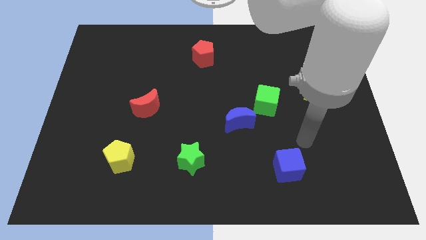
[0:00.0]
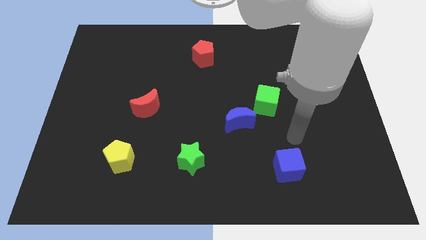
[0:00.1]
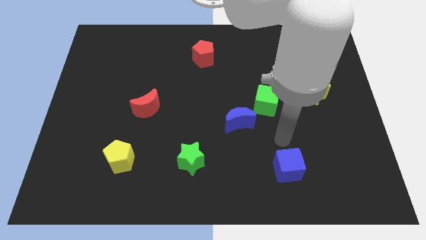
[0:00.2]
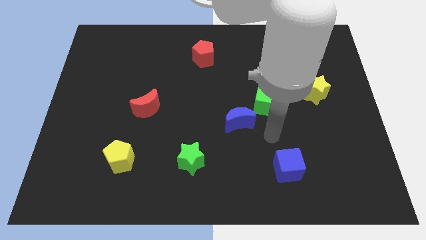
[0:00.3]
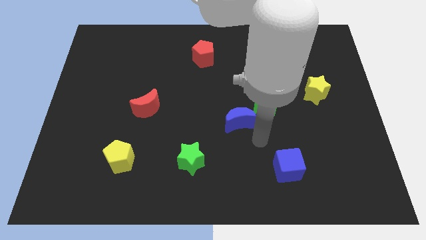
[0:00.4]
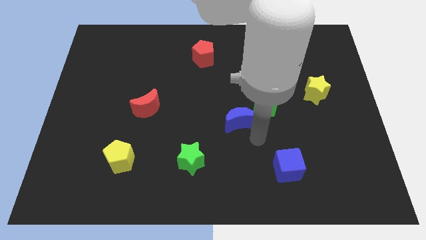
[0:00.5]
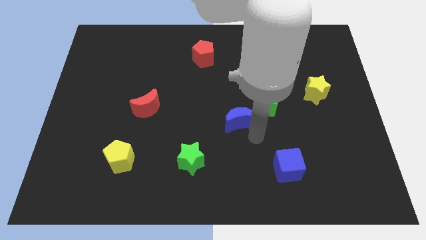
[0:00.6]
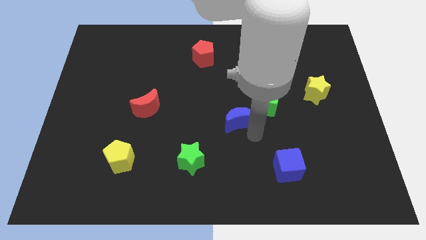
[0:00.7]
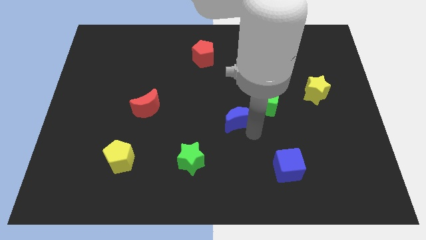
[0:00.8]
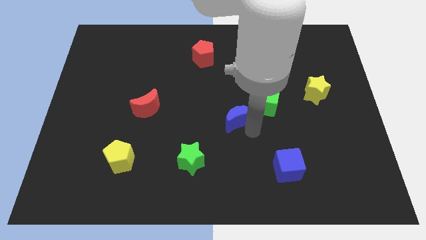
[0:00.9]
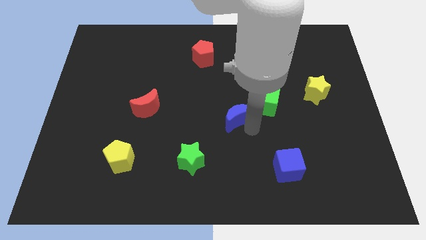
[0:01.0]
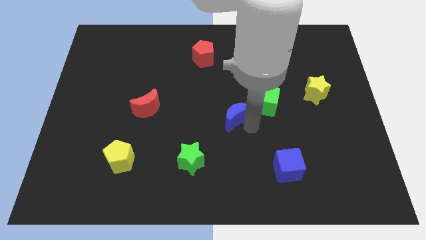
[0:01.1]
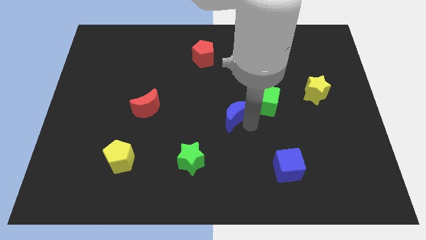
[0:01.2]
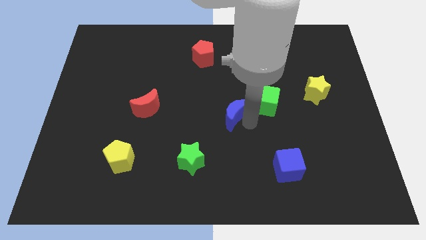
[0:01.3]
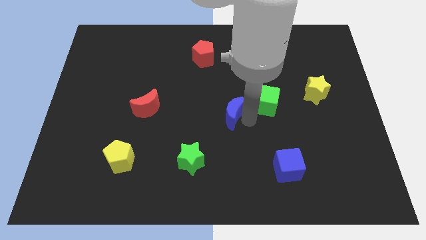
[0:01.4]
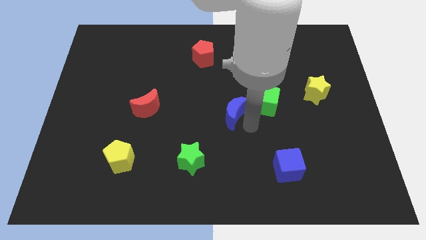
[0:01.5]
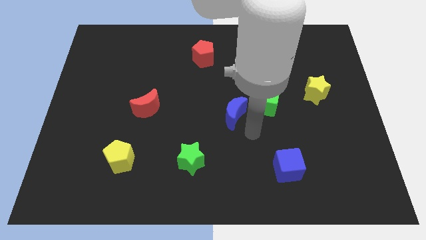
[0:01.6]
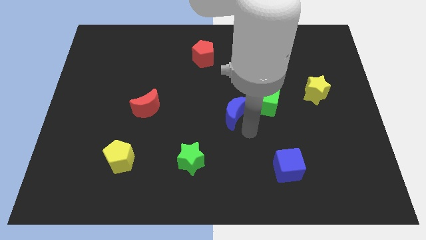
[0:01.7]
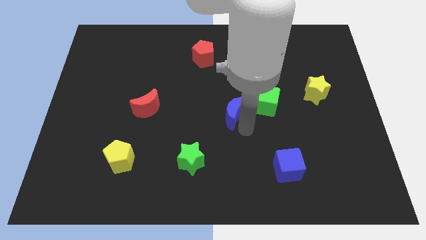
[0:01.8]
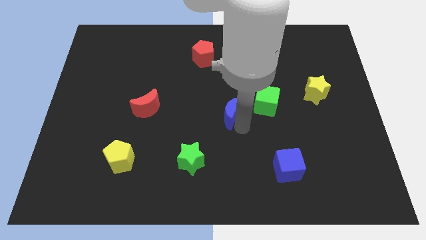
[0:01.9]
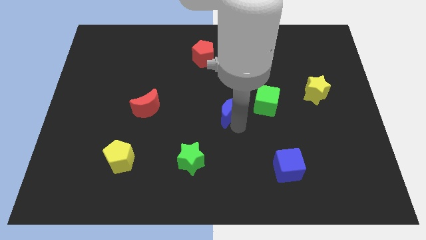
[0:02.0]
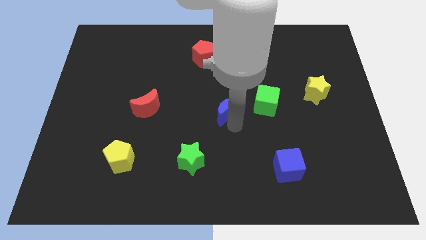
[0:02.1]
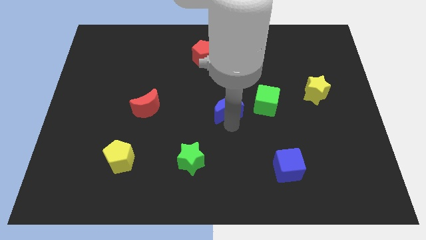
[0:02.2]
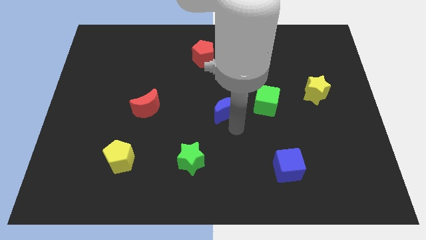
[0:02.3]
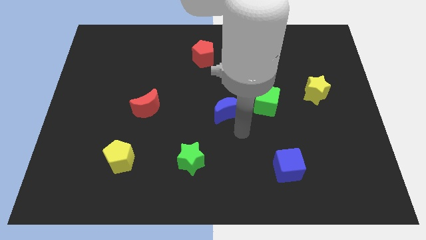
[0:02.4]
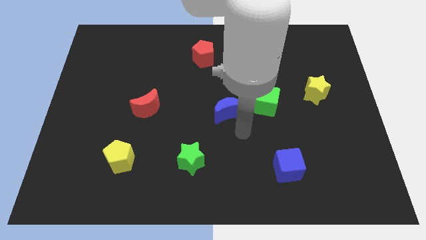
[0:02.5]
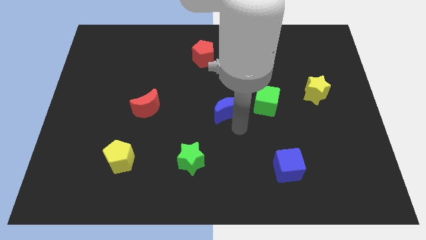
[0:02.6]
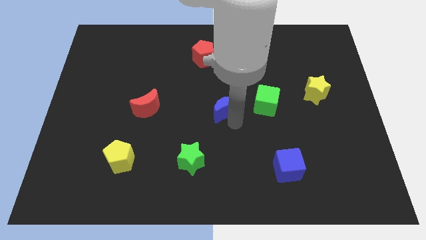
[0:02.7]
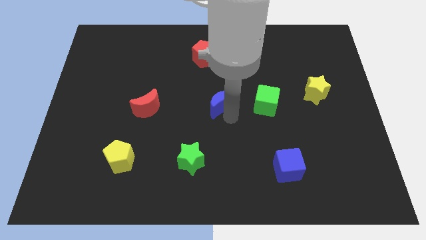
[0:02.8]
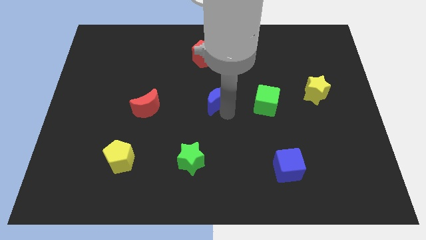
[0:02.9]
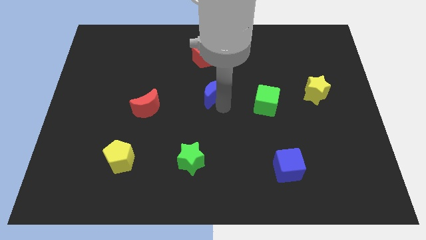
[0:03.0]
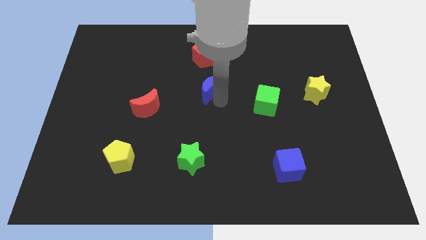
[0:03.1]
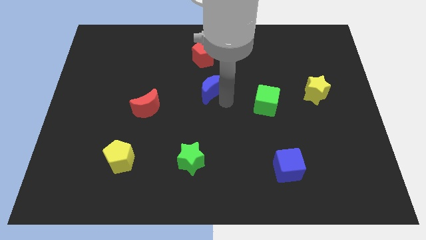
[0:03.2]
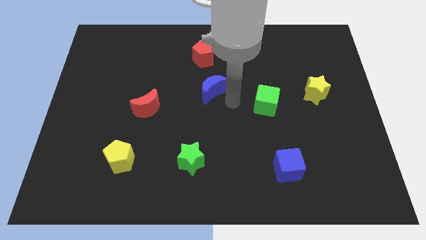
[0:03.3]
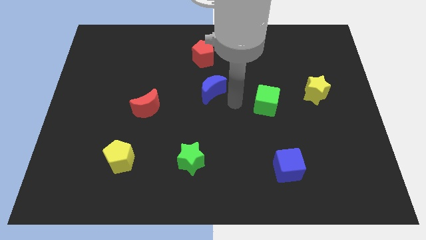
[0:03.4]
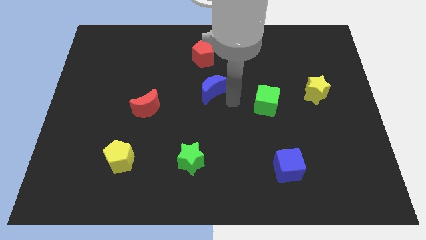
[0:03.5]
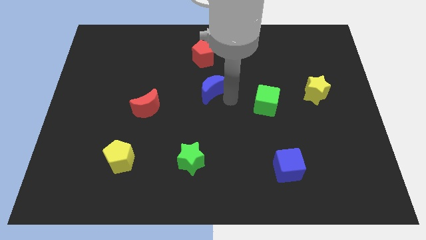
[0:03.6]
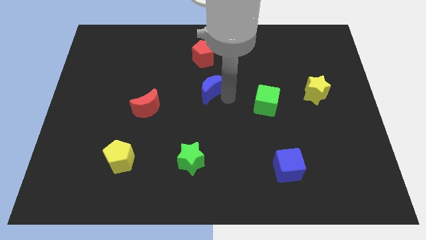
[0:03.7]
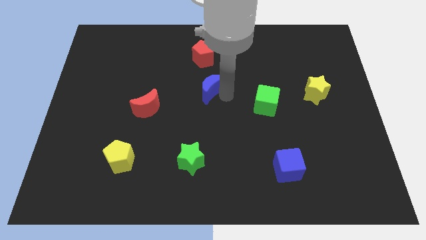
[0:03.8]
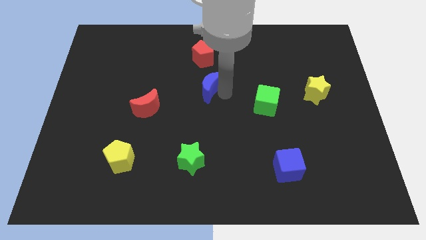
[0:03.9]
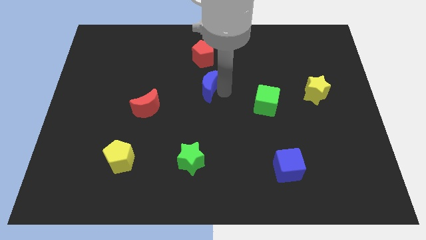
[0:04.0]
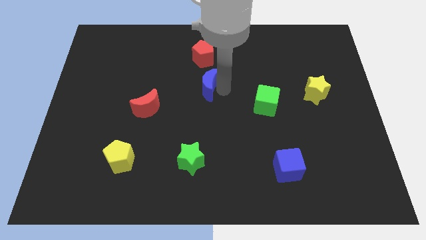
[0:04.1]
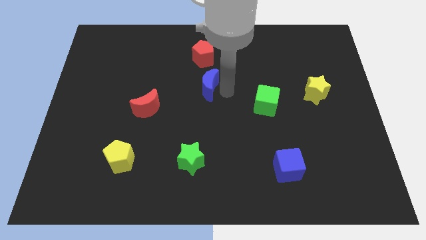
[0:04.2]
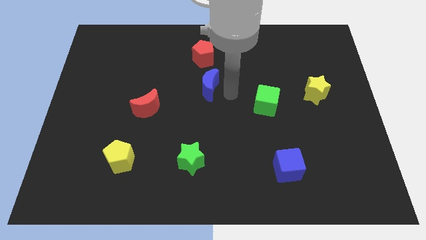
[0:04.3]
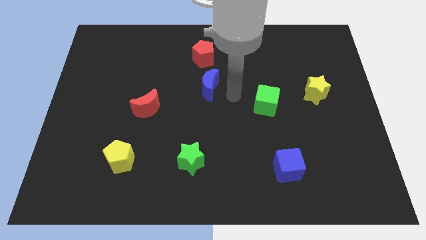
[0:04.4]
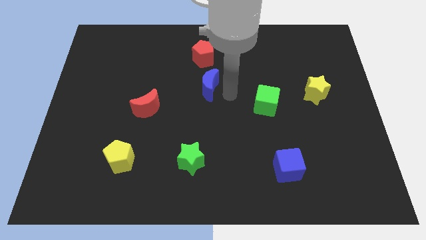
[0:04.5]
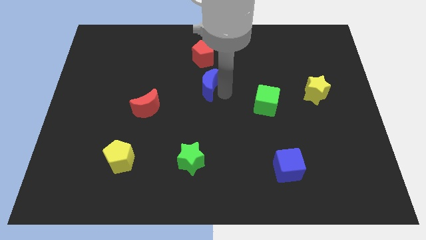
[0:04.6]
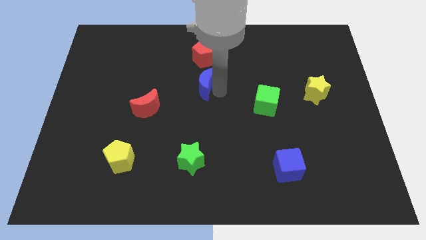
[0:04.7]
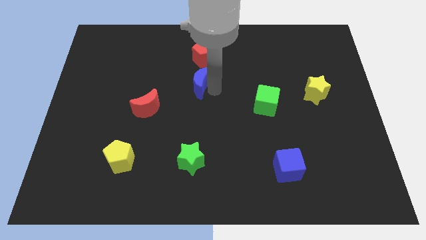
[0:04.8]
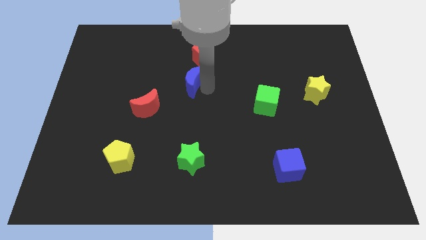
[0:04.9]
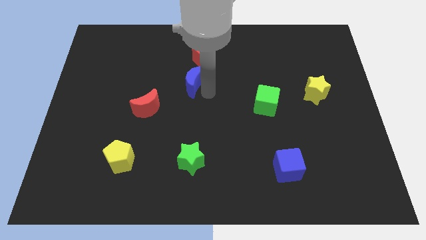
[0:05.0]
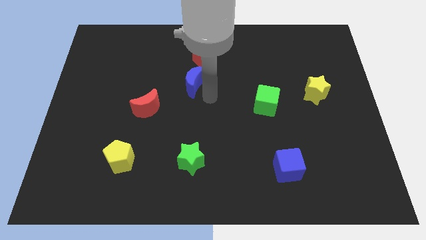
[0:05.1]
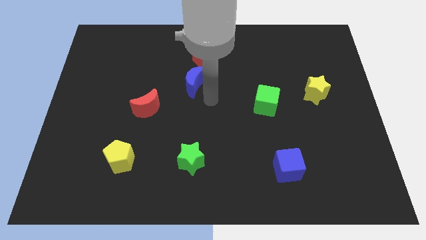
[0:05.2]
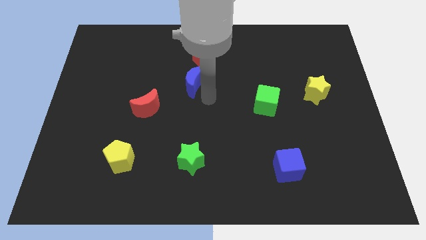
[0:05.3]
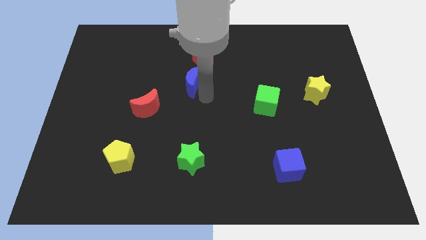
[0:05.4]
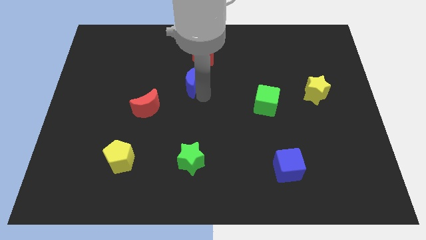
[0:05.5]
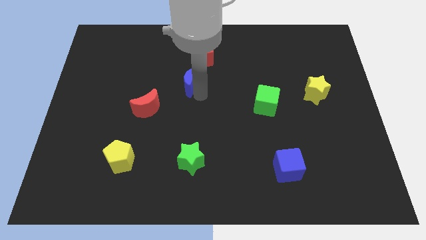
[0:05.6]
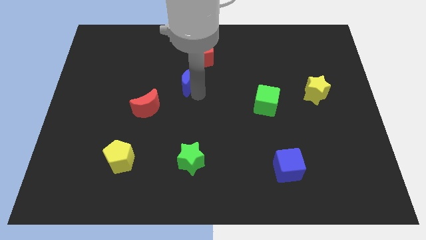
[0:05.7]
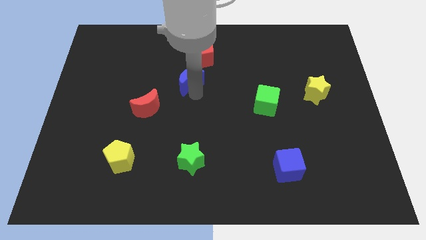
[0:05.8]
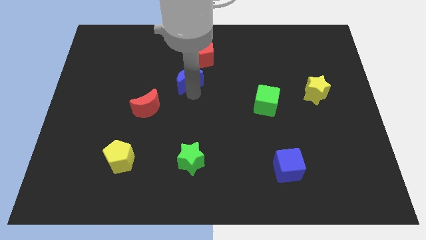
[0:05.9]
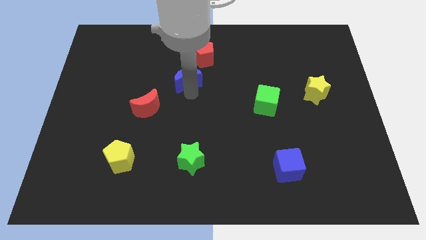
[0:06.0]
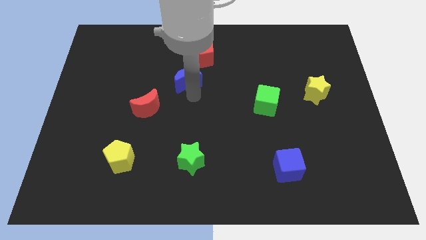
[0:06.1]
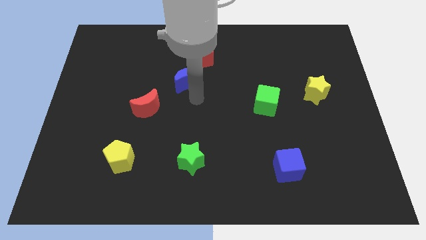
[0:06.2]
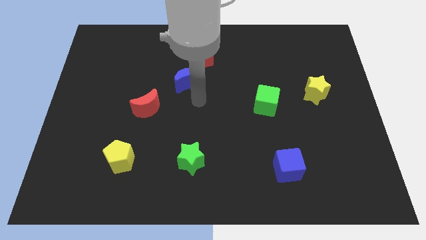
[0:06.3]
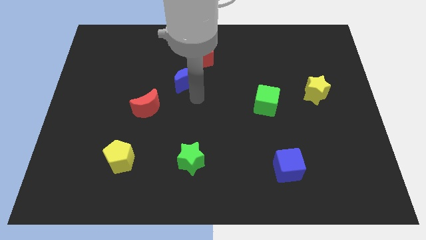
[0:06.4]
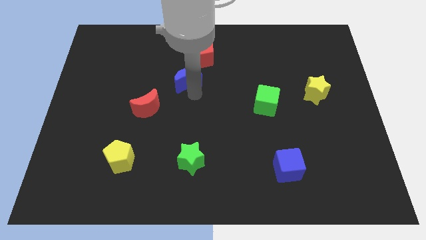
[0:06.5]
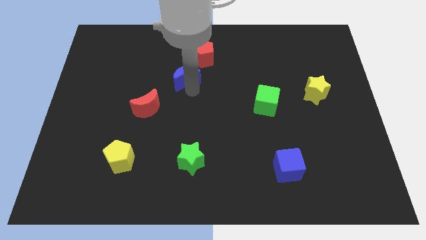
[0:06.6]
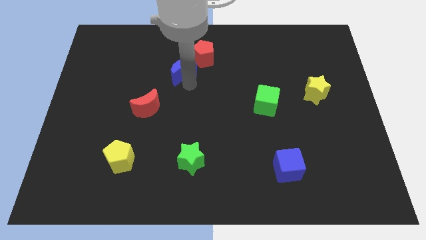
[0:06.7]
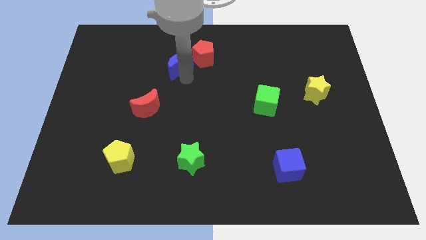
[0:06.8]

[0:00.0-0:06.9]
put the blue moon to the left of the red pentagon

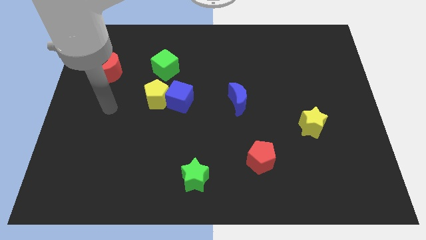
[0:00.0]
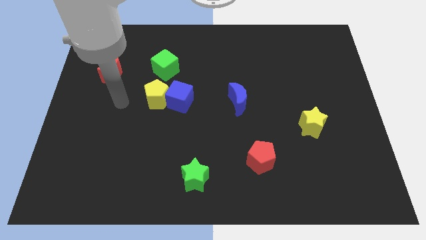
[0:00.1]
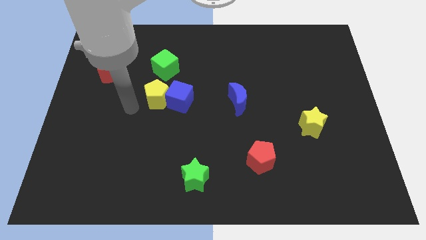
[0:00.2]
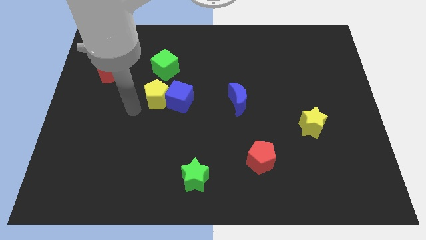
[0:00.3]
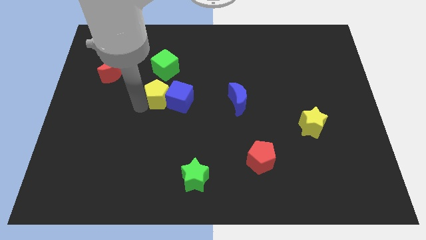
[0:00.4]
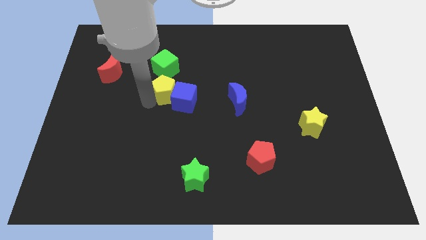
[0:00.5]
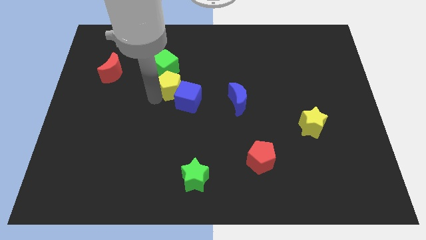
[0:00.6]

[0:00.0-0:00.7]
put the yellow pentagon to the bottom right of the green cube

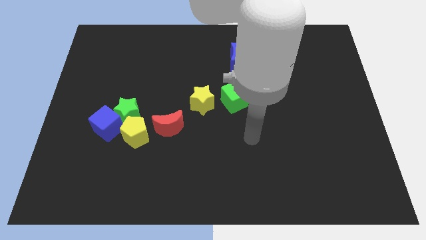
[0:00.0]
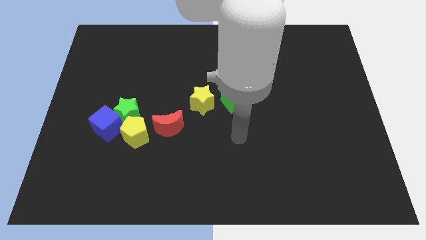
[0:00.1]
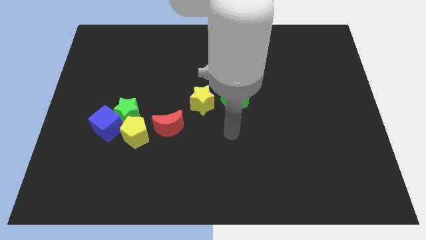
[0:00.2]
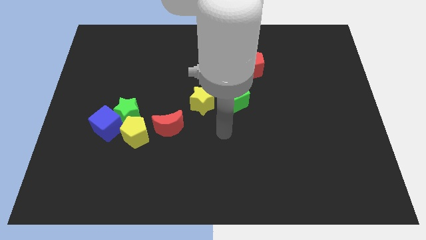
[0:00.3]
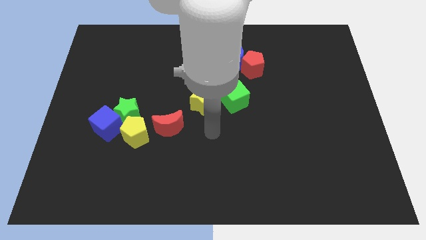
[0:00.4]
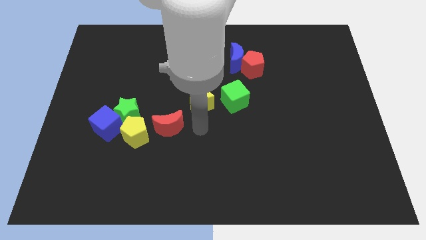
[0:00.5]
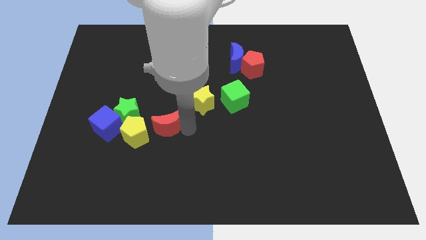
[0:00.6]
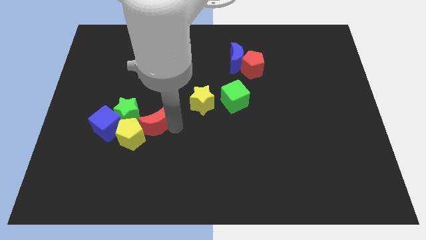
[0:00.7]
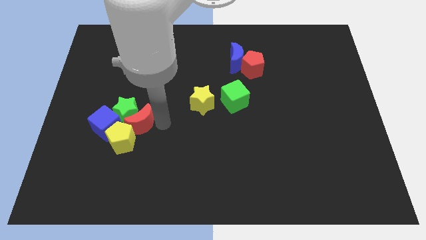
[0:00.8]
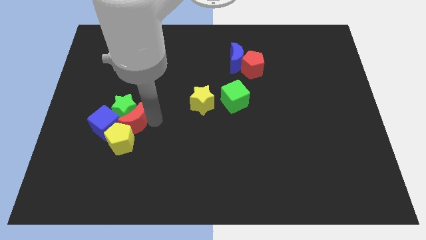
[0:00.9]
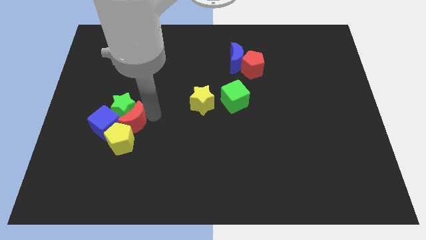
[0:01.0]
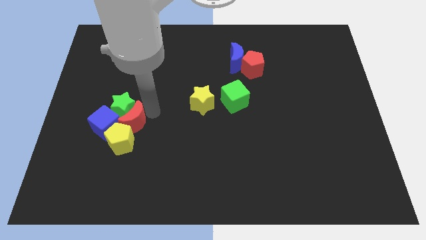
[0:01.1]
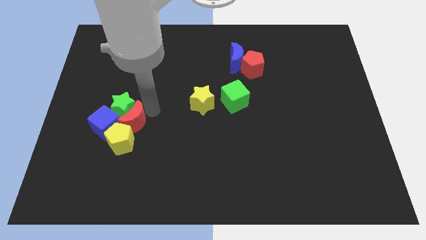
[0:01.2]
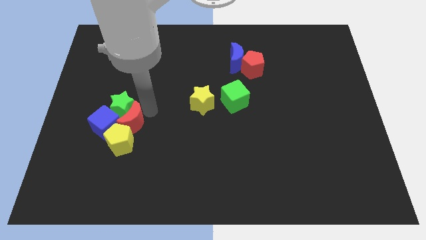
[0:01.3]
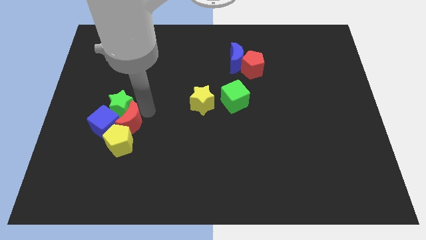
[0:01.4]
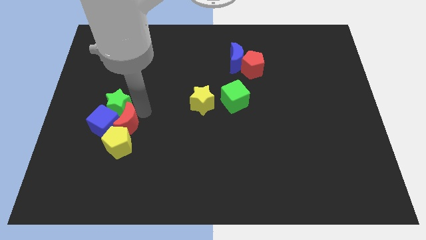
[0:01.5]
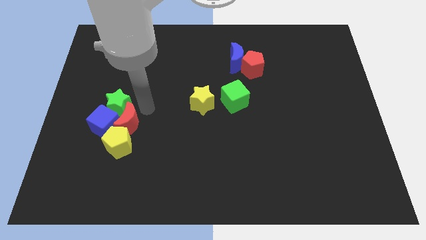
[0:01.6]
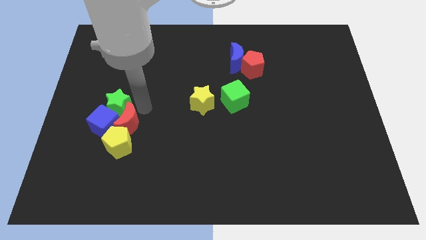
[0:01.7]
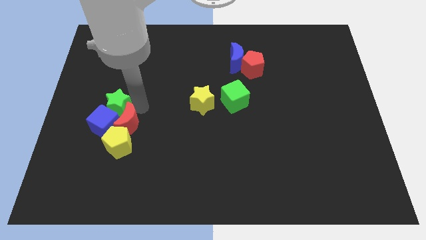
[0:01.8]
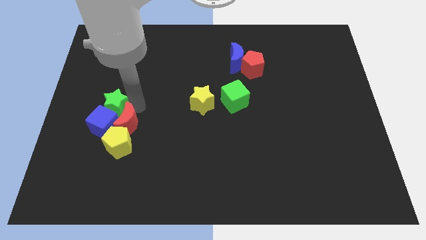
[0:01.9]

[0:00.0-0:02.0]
push the green star diagonally up and to the left of the blue cube
